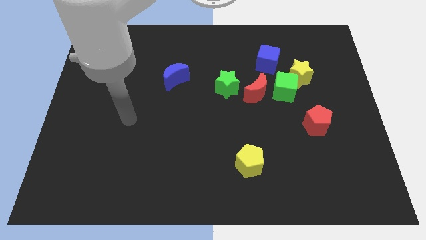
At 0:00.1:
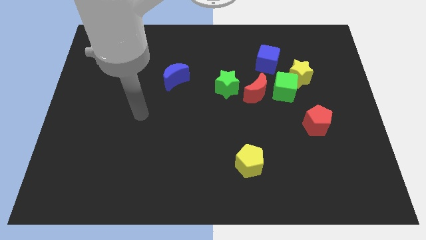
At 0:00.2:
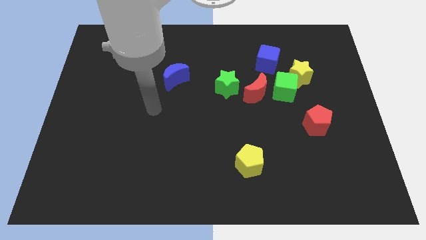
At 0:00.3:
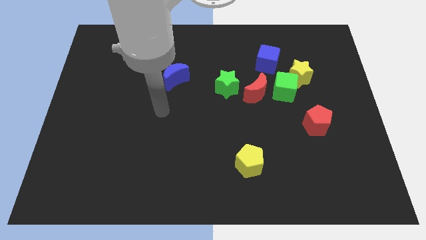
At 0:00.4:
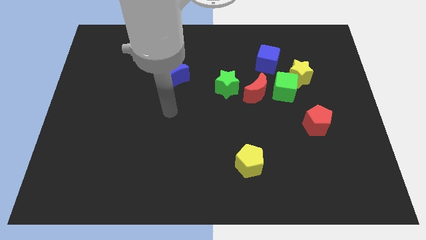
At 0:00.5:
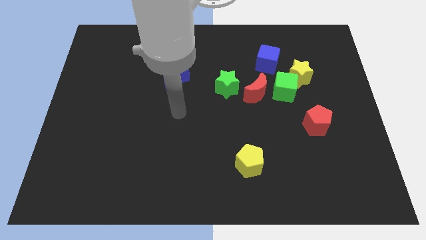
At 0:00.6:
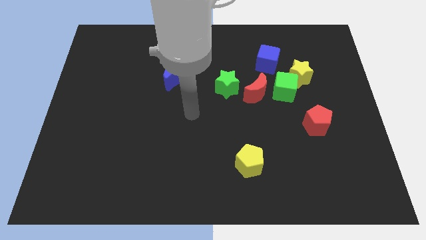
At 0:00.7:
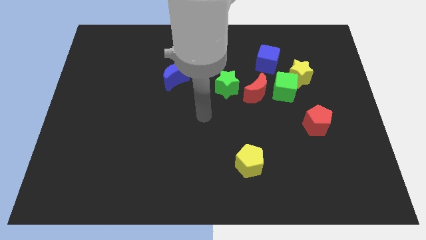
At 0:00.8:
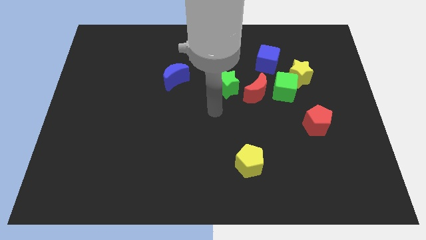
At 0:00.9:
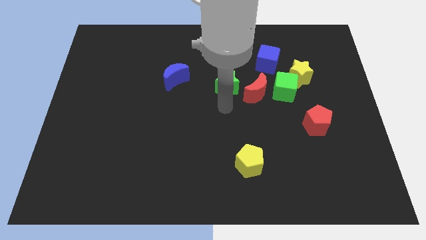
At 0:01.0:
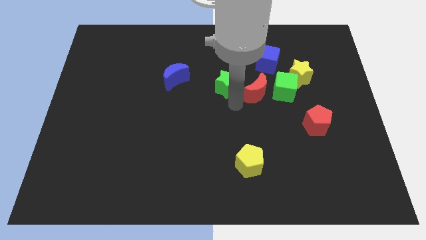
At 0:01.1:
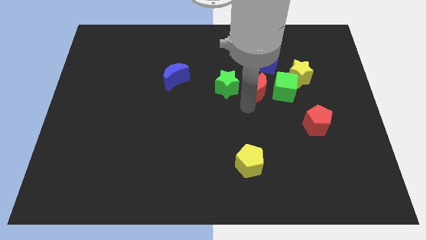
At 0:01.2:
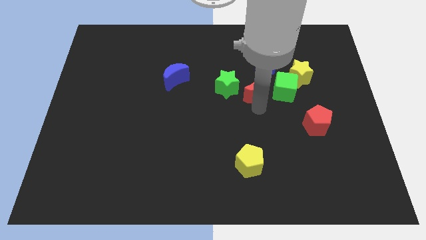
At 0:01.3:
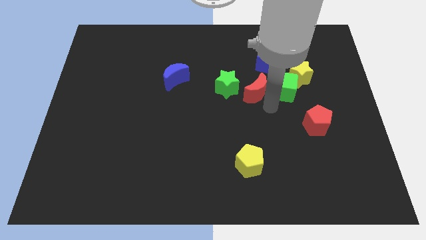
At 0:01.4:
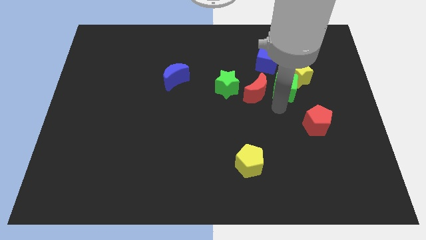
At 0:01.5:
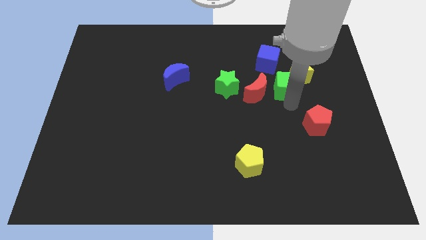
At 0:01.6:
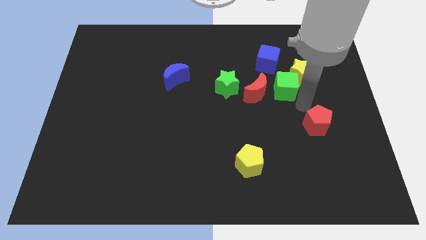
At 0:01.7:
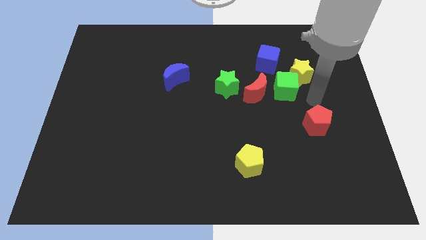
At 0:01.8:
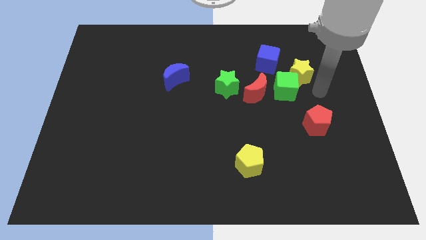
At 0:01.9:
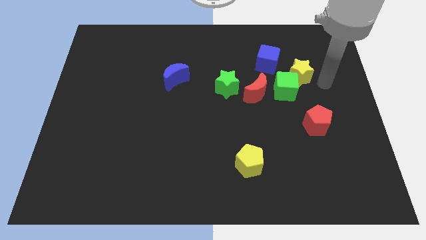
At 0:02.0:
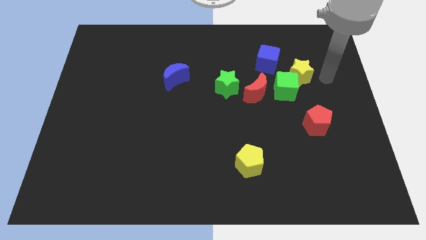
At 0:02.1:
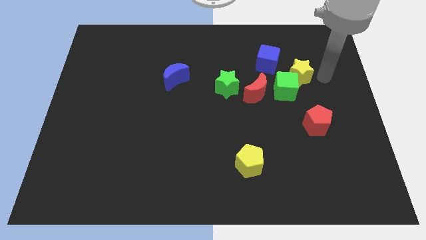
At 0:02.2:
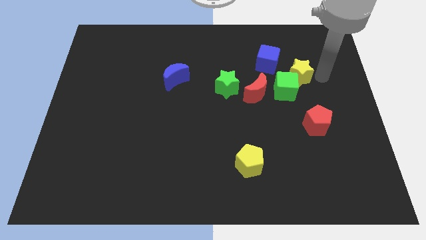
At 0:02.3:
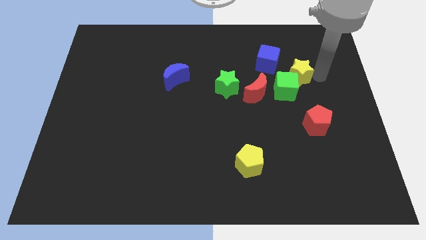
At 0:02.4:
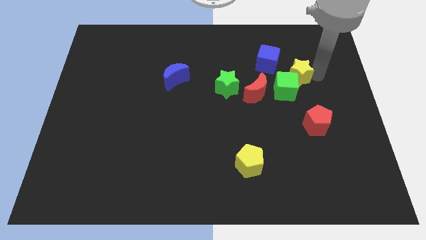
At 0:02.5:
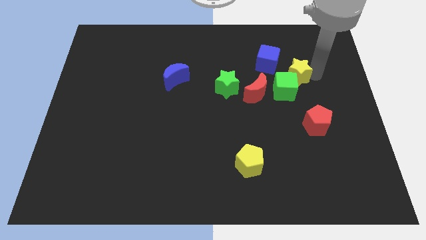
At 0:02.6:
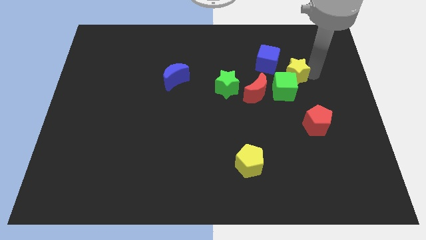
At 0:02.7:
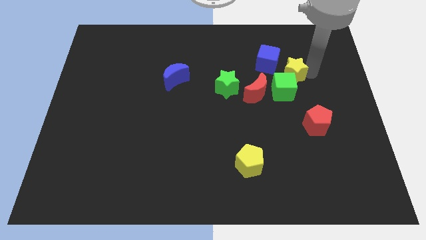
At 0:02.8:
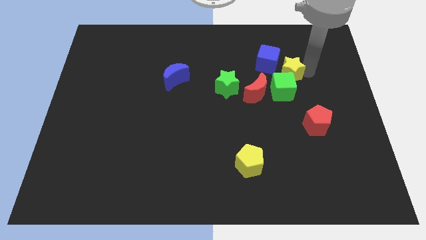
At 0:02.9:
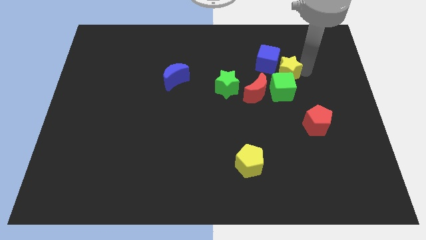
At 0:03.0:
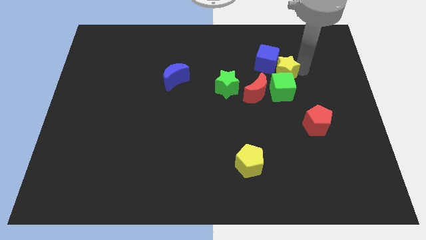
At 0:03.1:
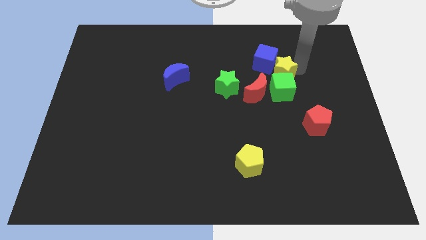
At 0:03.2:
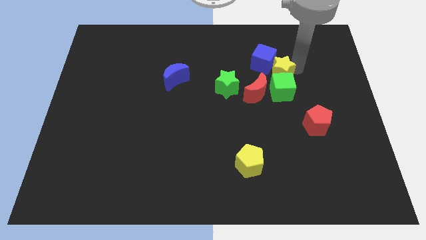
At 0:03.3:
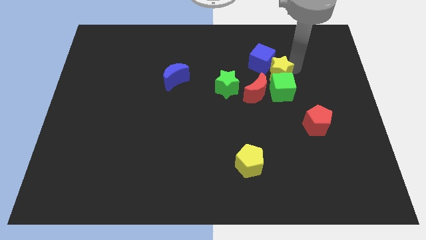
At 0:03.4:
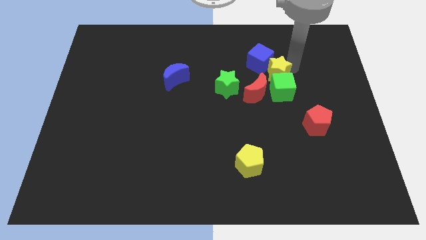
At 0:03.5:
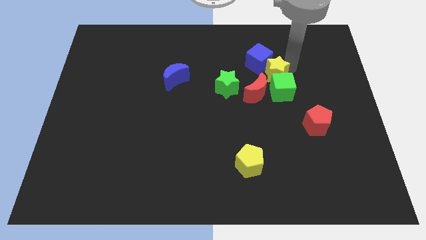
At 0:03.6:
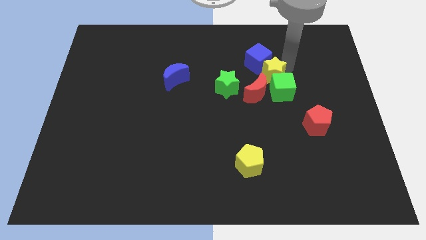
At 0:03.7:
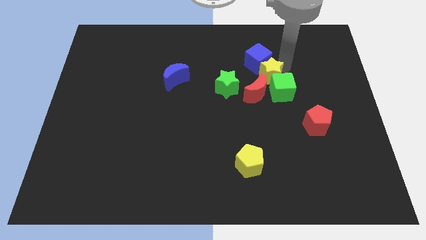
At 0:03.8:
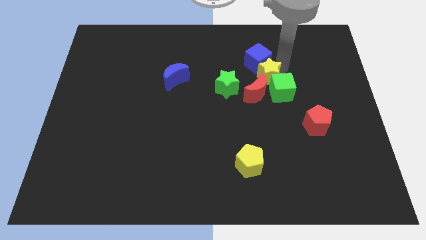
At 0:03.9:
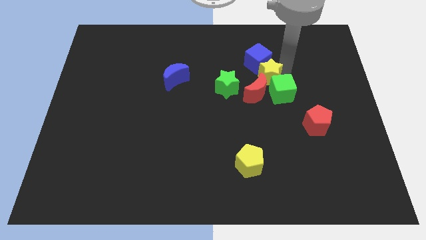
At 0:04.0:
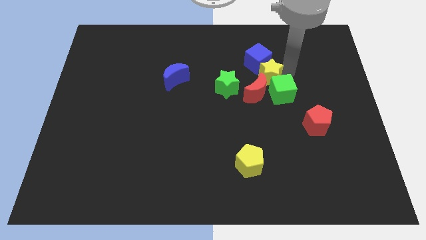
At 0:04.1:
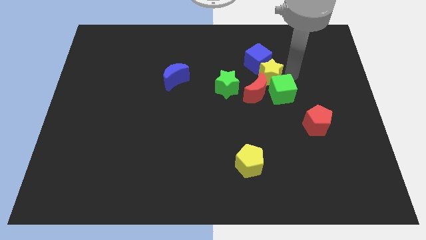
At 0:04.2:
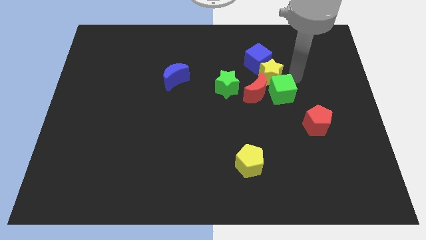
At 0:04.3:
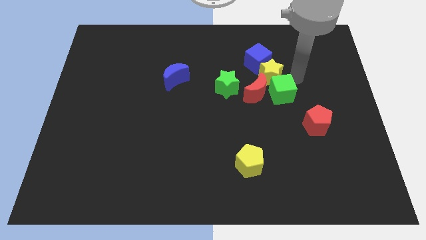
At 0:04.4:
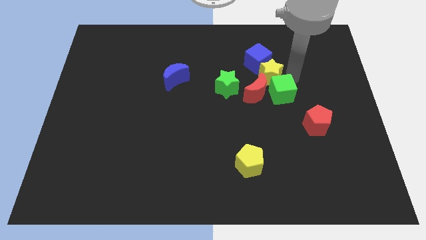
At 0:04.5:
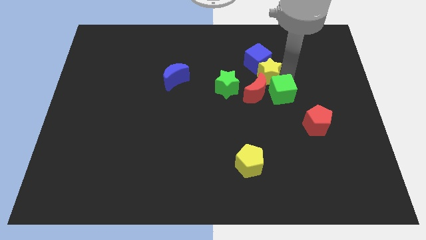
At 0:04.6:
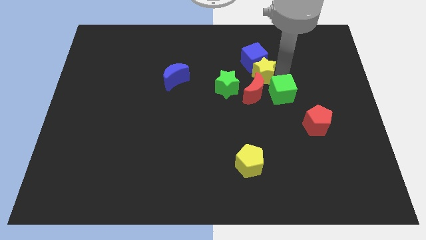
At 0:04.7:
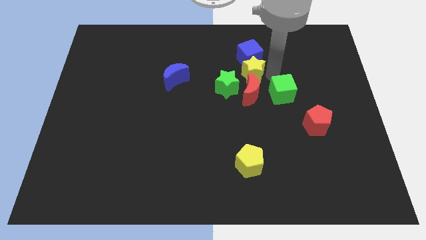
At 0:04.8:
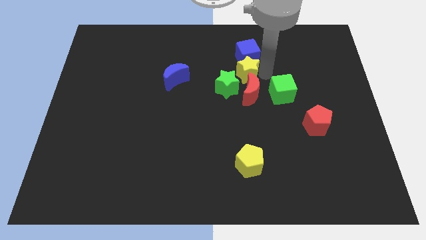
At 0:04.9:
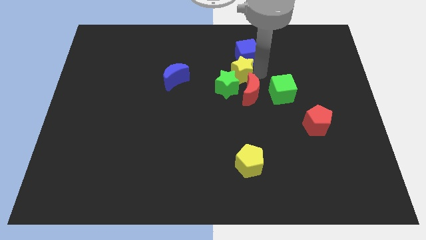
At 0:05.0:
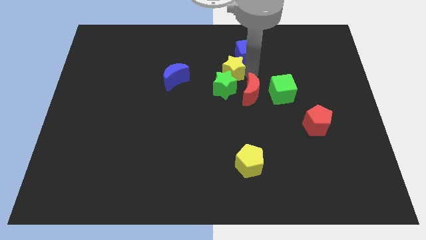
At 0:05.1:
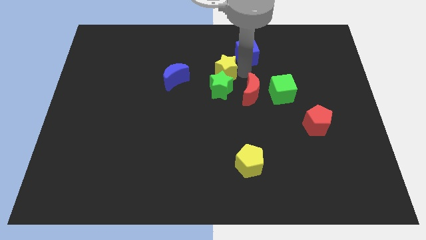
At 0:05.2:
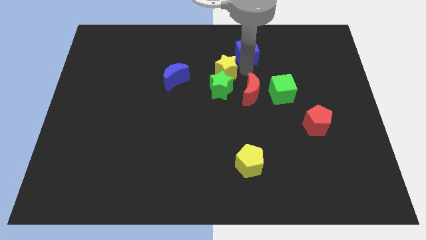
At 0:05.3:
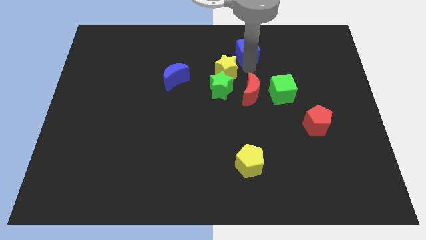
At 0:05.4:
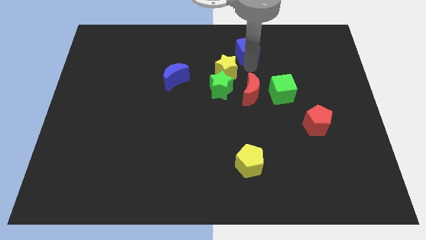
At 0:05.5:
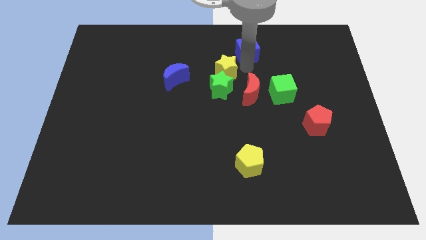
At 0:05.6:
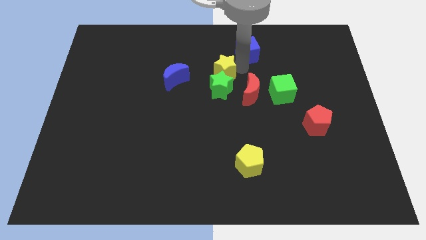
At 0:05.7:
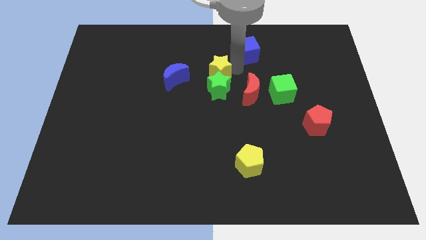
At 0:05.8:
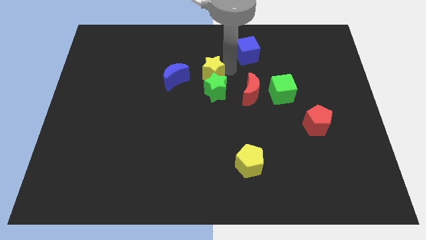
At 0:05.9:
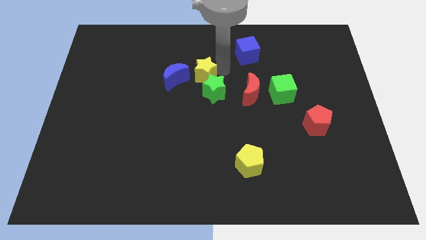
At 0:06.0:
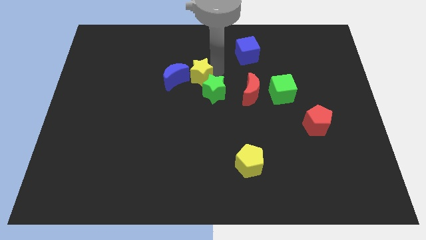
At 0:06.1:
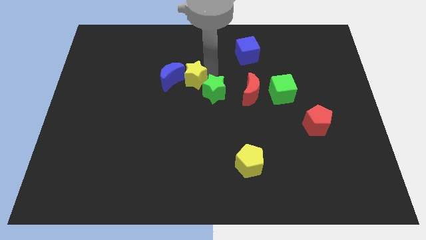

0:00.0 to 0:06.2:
put the yellow star next to the blue moon
